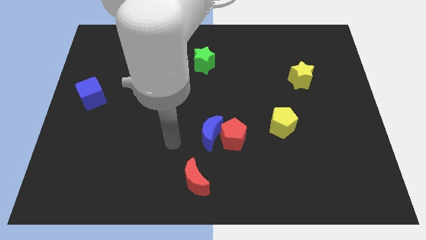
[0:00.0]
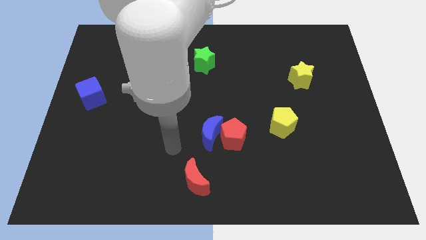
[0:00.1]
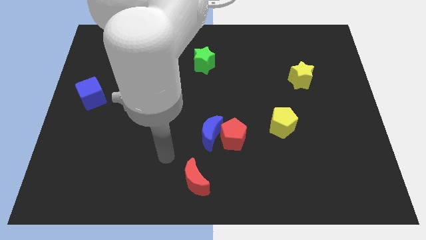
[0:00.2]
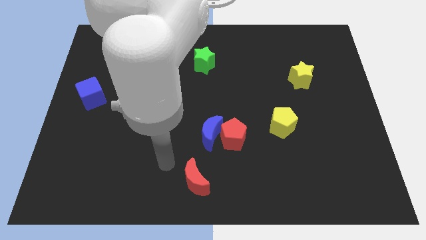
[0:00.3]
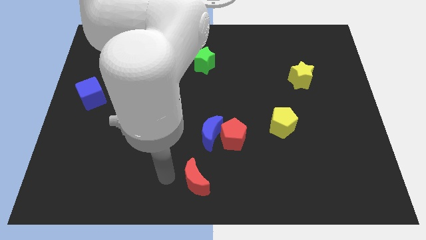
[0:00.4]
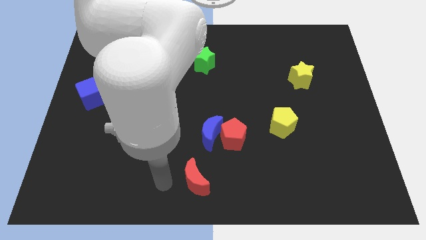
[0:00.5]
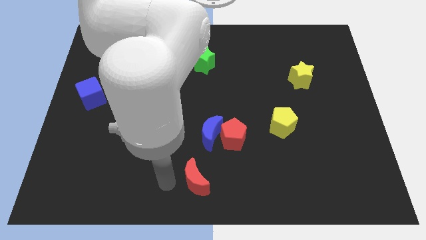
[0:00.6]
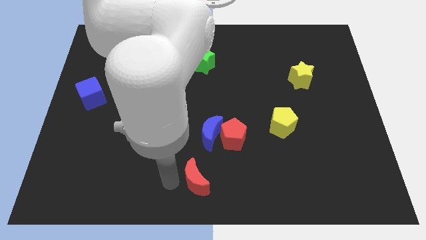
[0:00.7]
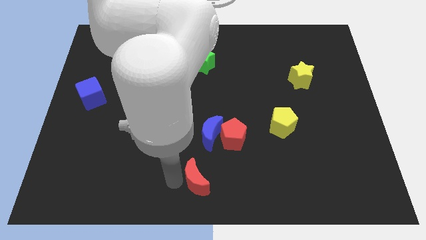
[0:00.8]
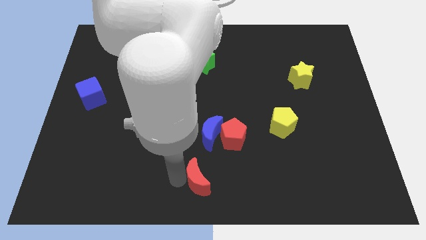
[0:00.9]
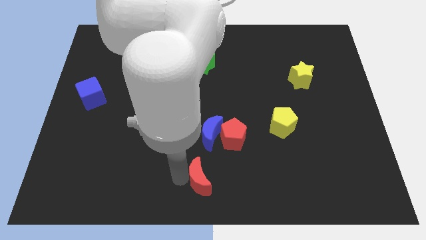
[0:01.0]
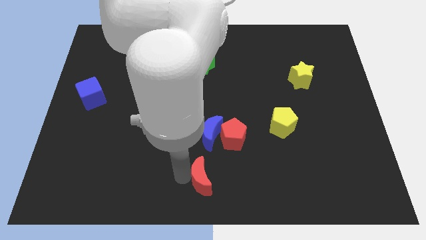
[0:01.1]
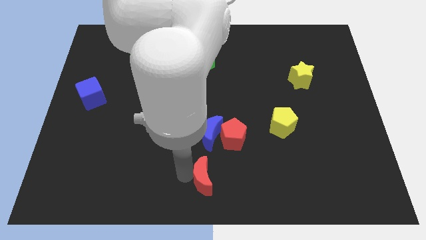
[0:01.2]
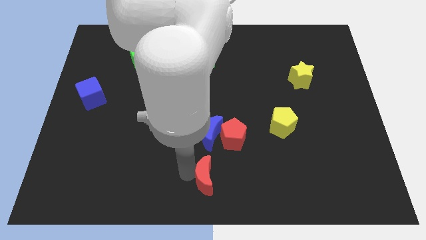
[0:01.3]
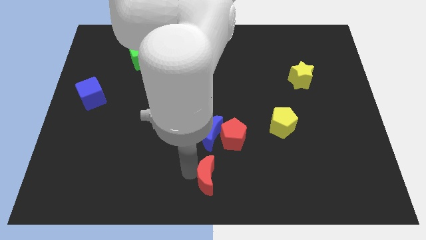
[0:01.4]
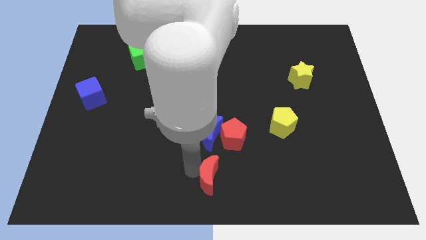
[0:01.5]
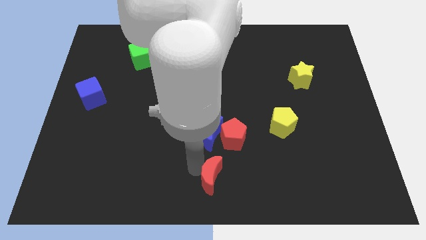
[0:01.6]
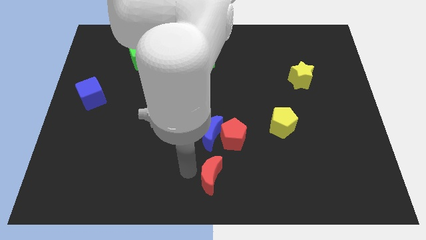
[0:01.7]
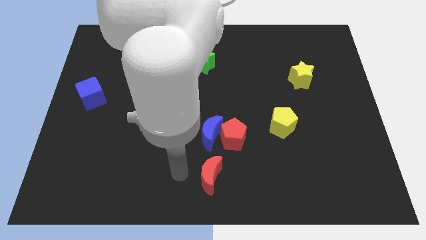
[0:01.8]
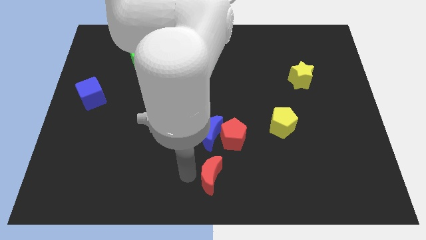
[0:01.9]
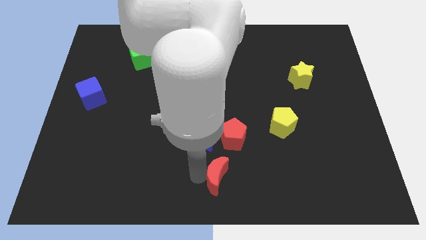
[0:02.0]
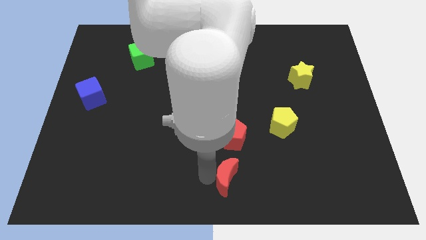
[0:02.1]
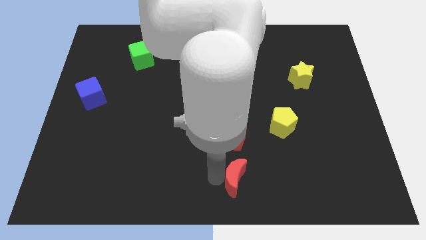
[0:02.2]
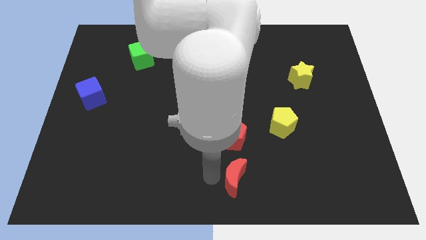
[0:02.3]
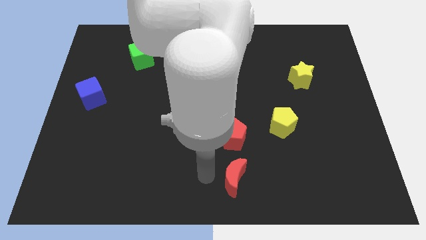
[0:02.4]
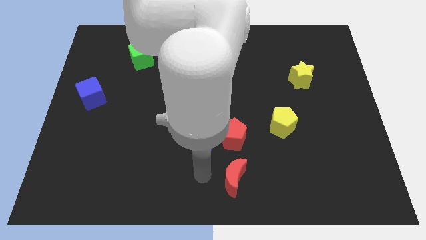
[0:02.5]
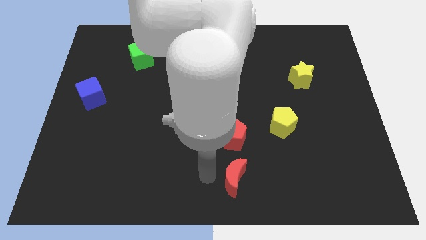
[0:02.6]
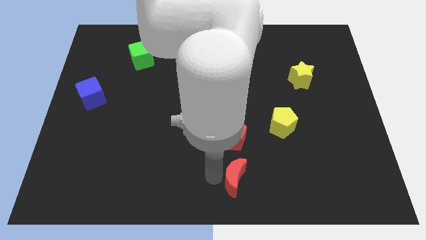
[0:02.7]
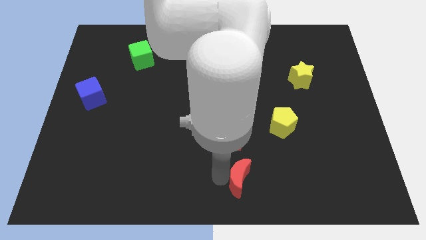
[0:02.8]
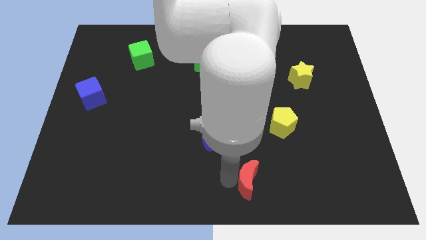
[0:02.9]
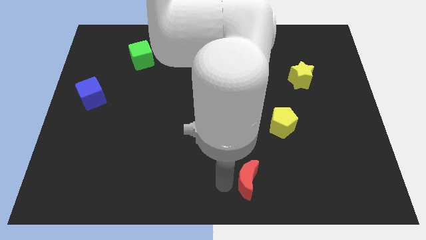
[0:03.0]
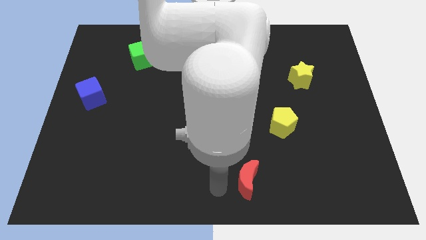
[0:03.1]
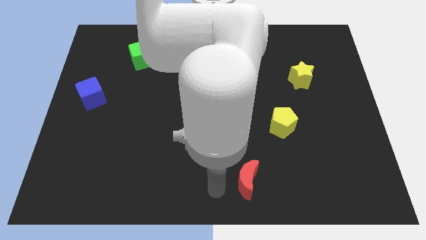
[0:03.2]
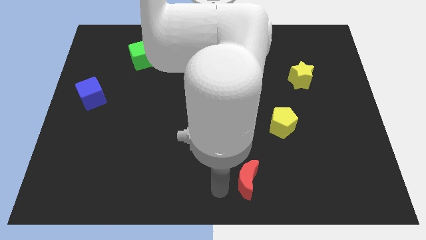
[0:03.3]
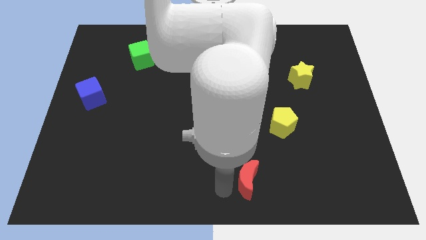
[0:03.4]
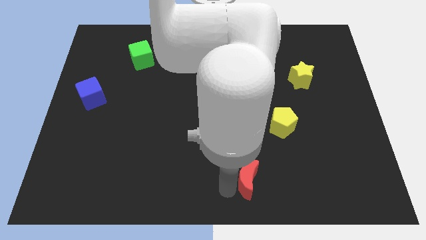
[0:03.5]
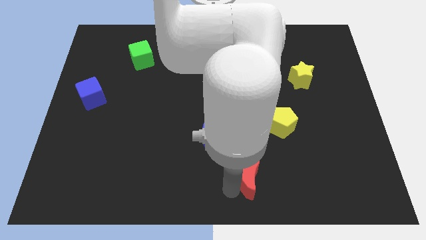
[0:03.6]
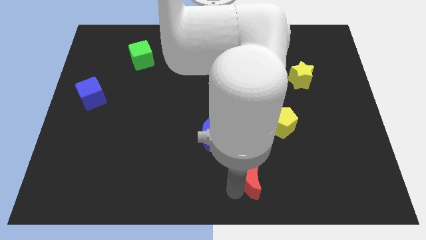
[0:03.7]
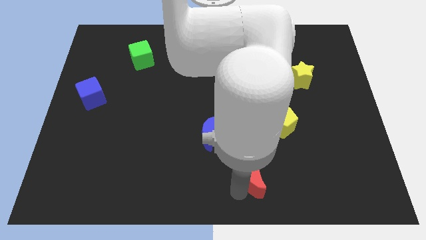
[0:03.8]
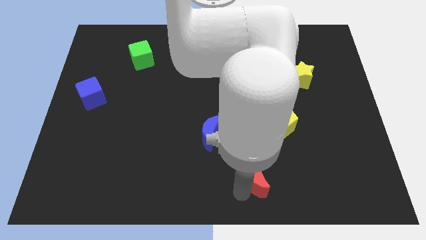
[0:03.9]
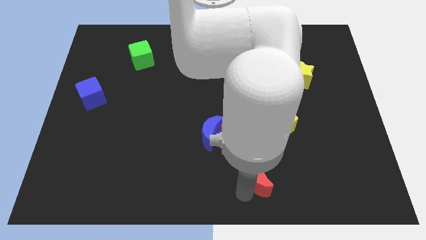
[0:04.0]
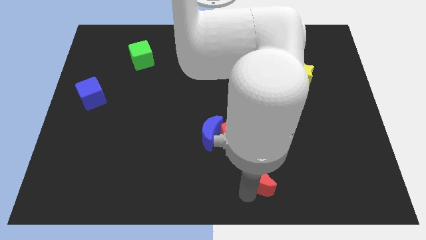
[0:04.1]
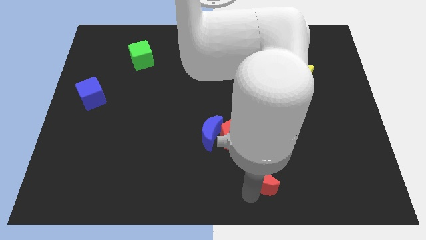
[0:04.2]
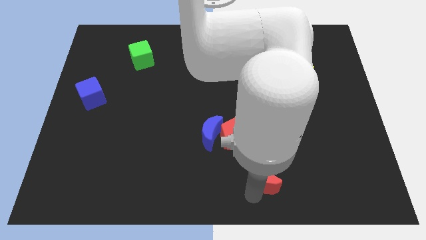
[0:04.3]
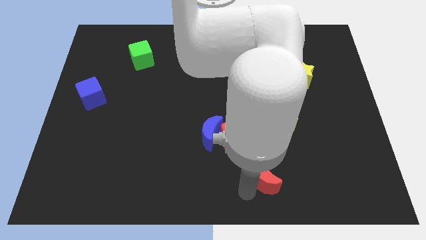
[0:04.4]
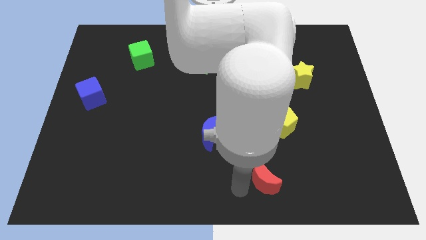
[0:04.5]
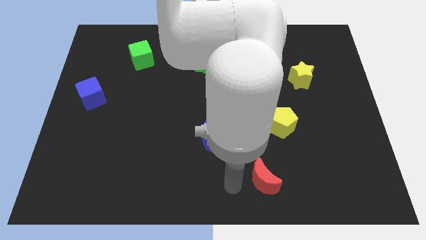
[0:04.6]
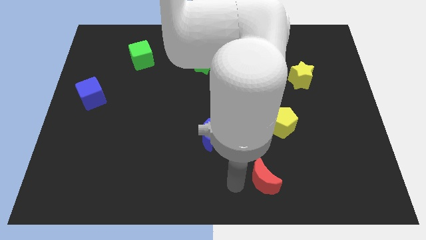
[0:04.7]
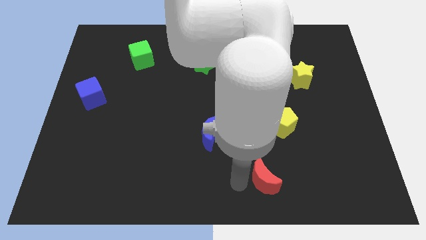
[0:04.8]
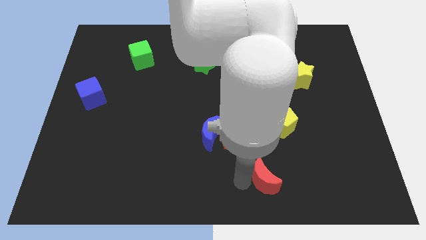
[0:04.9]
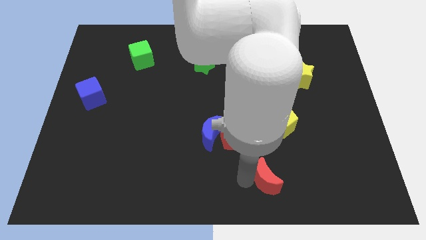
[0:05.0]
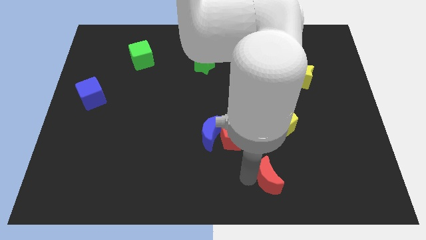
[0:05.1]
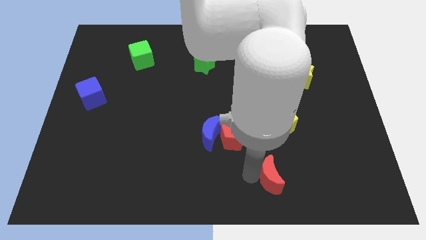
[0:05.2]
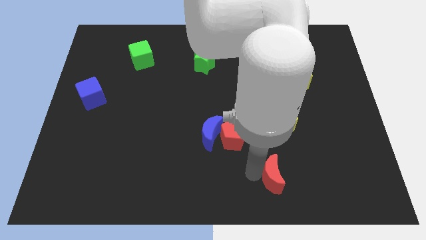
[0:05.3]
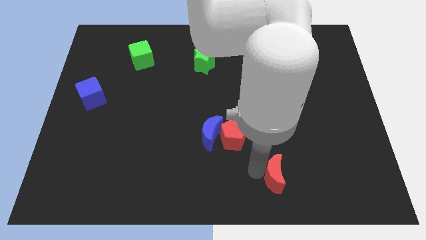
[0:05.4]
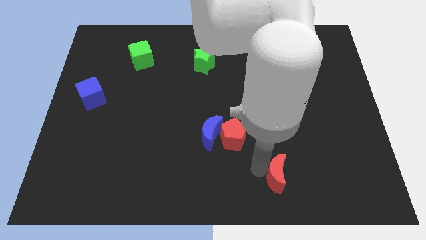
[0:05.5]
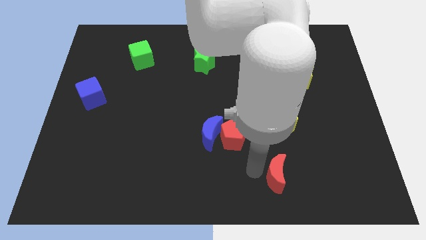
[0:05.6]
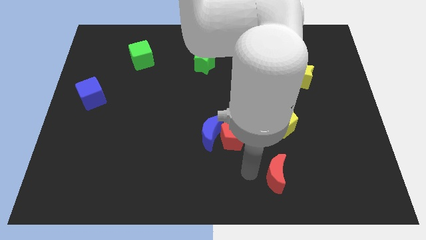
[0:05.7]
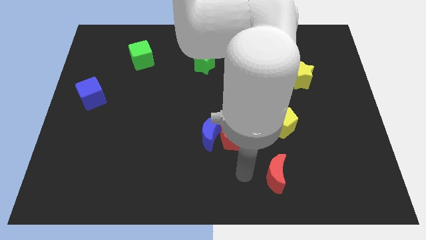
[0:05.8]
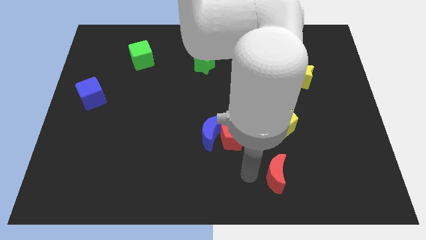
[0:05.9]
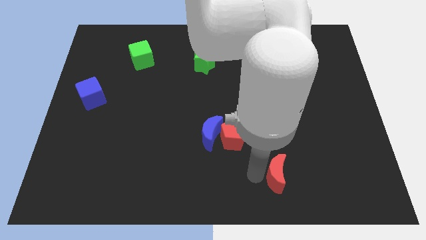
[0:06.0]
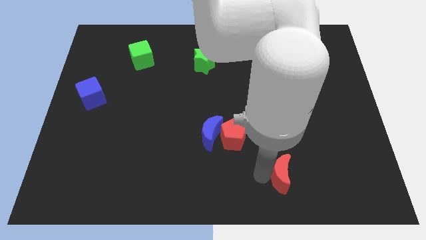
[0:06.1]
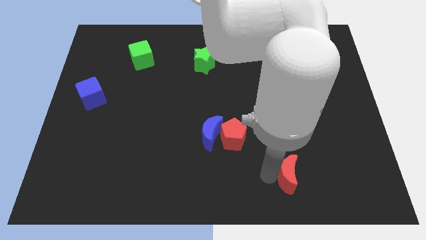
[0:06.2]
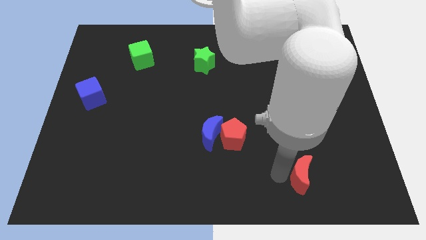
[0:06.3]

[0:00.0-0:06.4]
push the red moon right

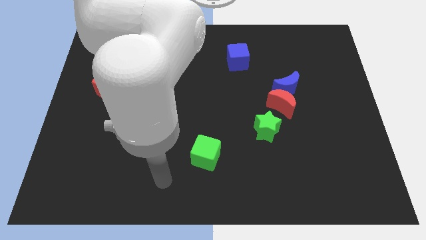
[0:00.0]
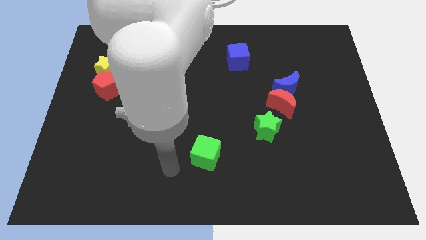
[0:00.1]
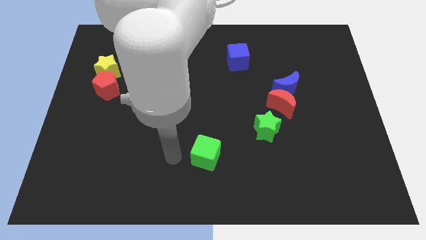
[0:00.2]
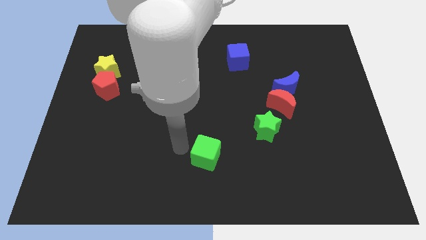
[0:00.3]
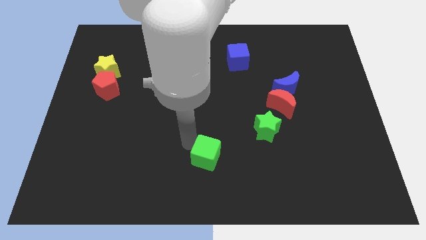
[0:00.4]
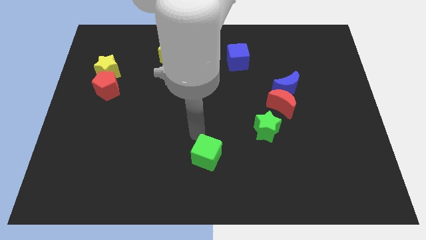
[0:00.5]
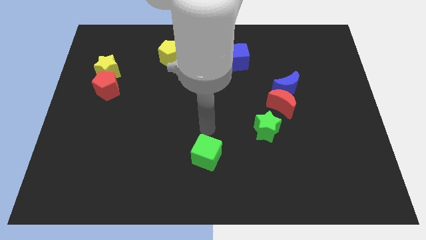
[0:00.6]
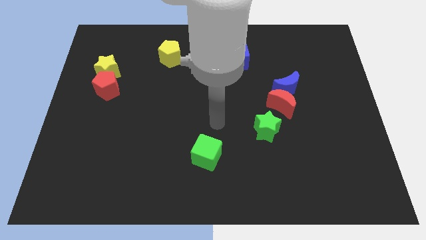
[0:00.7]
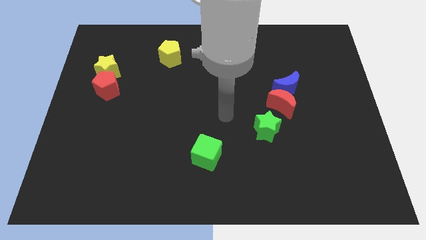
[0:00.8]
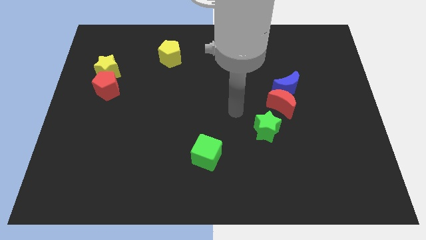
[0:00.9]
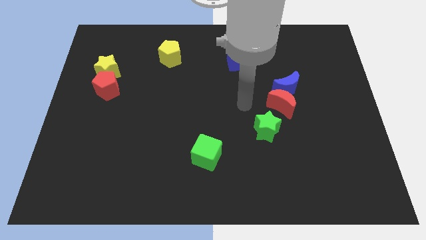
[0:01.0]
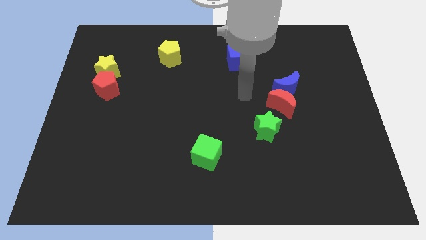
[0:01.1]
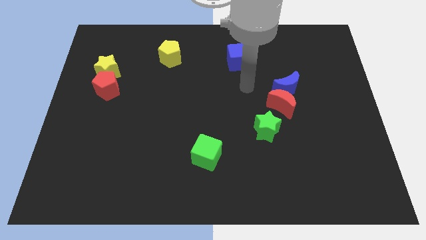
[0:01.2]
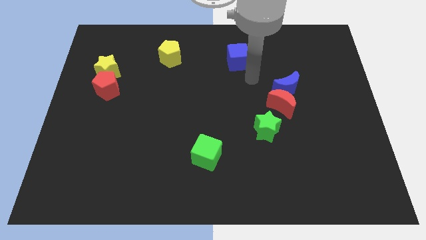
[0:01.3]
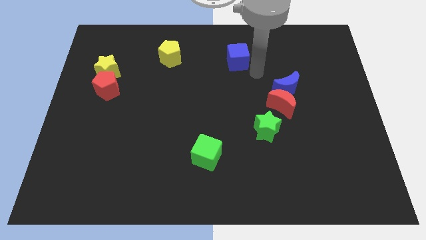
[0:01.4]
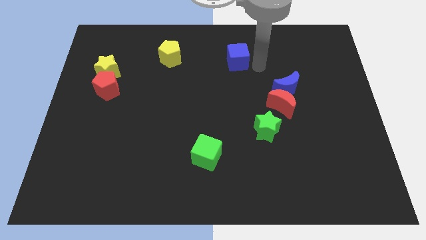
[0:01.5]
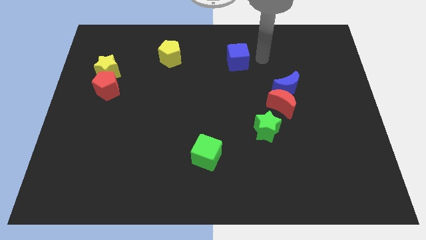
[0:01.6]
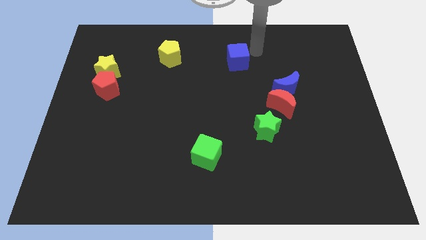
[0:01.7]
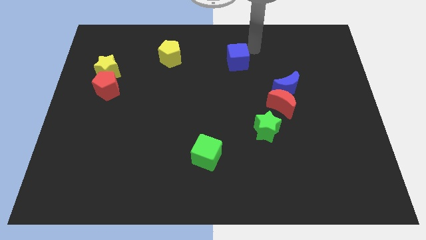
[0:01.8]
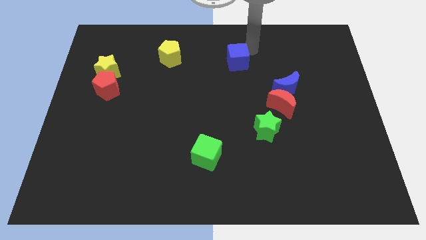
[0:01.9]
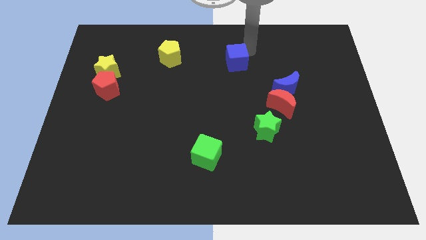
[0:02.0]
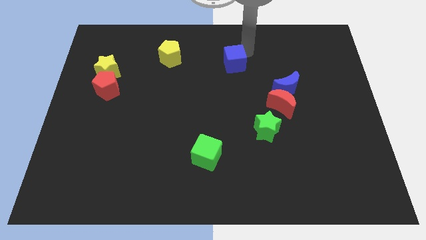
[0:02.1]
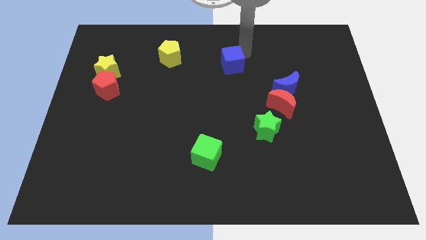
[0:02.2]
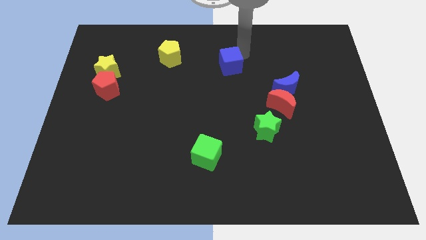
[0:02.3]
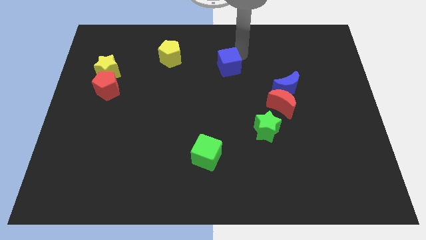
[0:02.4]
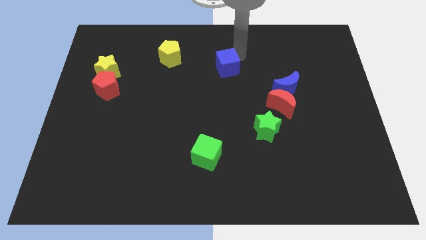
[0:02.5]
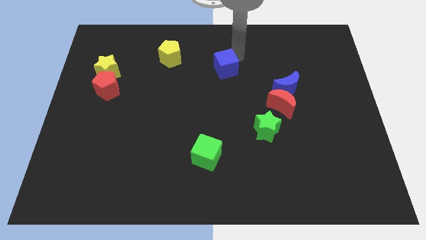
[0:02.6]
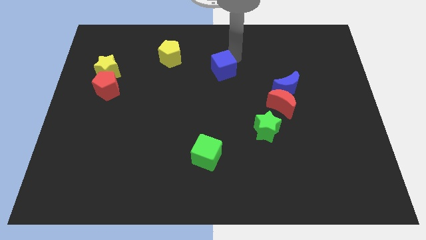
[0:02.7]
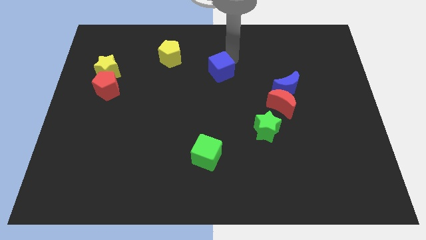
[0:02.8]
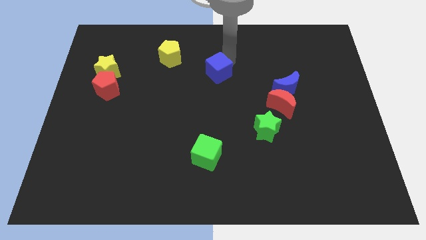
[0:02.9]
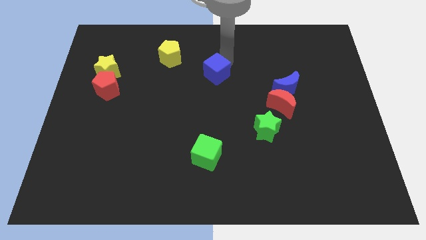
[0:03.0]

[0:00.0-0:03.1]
move the blue cube somewhat down and to the left
